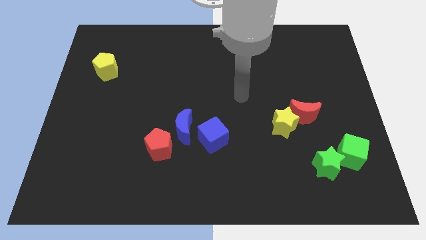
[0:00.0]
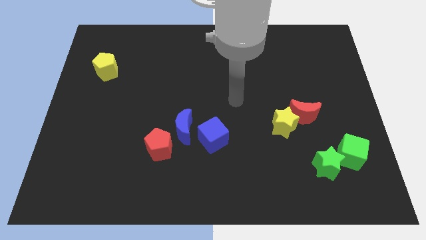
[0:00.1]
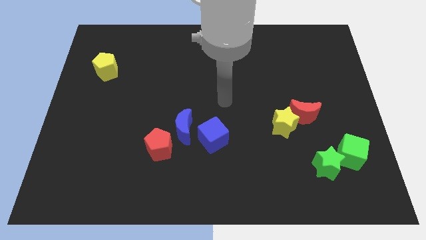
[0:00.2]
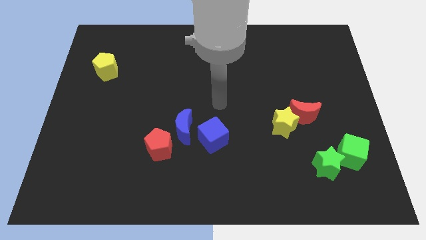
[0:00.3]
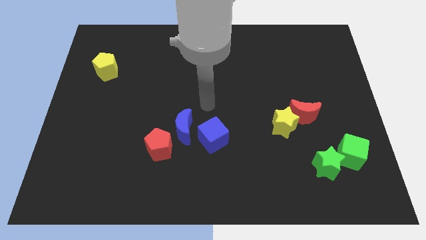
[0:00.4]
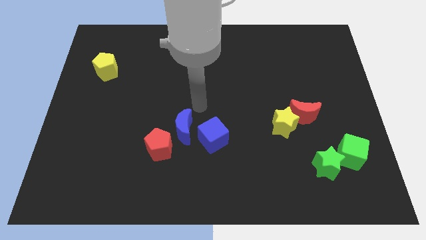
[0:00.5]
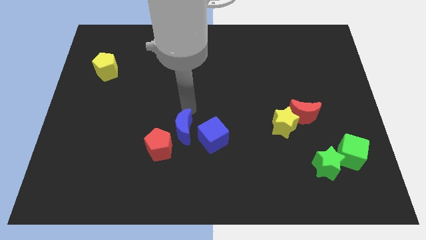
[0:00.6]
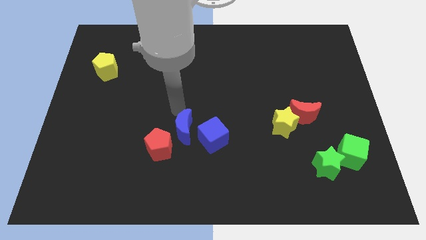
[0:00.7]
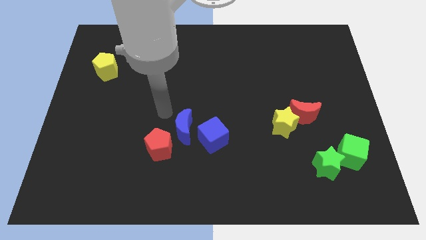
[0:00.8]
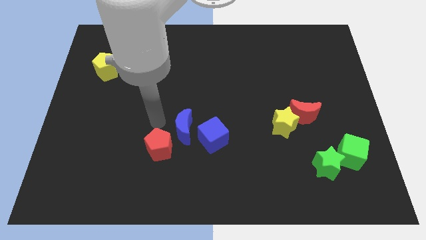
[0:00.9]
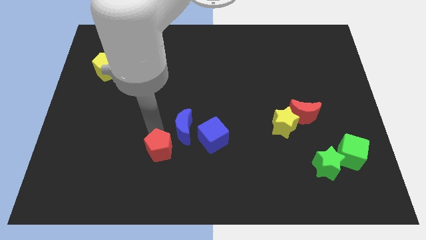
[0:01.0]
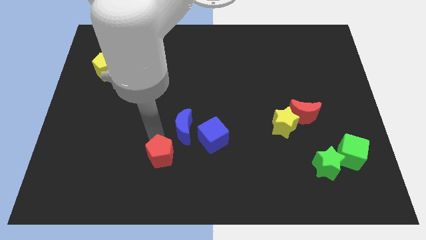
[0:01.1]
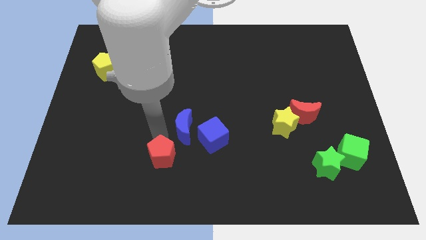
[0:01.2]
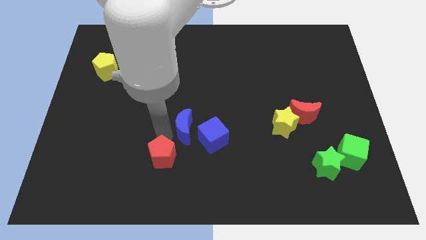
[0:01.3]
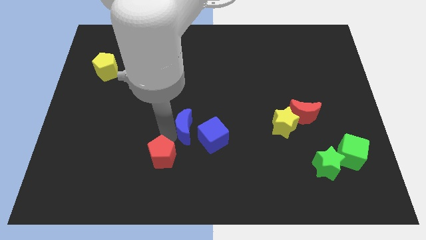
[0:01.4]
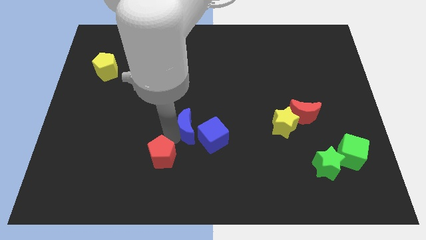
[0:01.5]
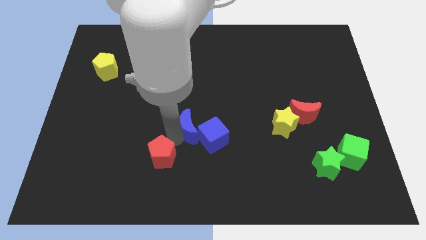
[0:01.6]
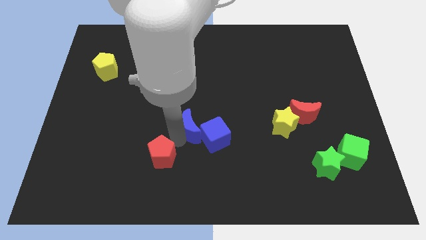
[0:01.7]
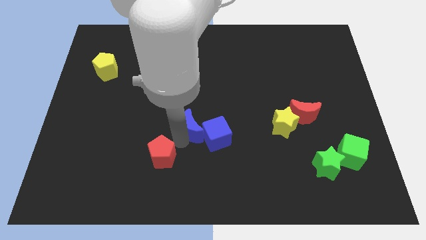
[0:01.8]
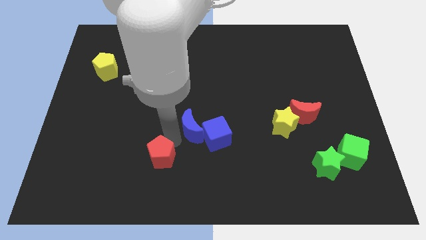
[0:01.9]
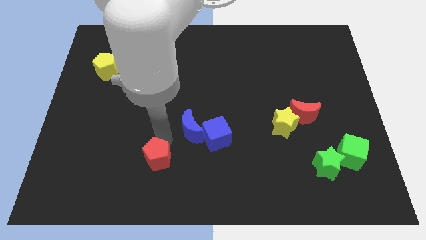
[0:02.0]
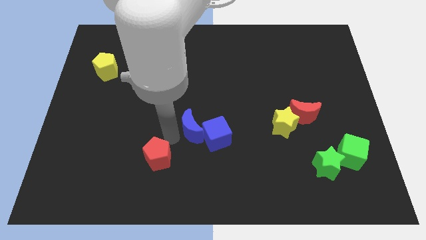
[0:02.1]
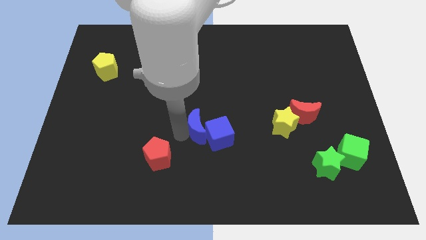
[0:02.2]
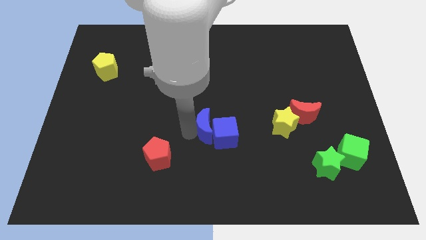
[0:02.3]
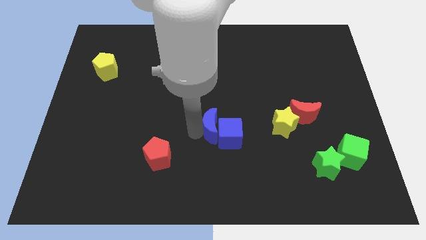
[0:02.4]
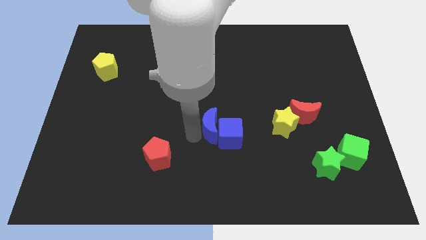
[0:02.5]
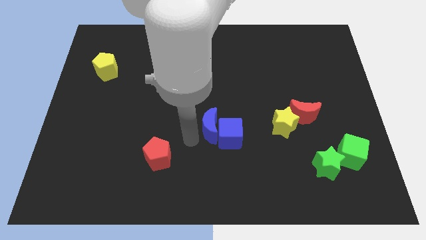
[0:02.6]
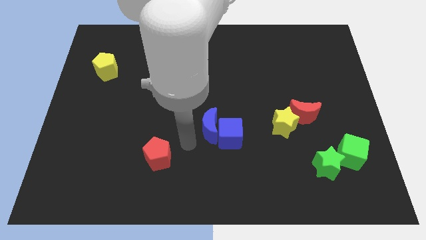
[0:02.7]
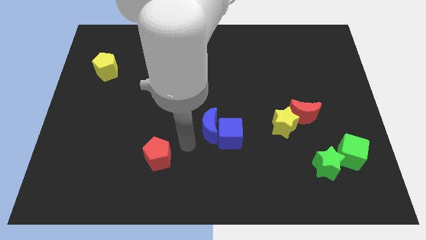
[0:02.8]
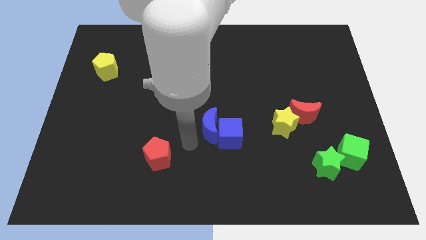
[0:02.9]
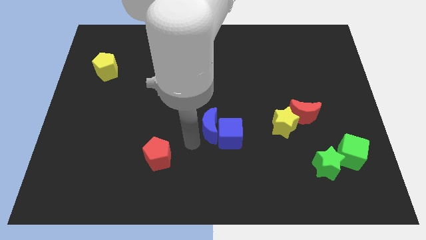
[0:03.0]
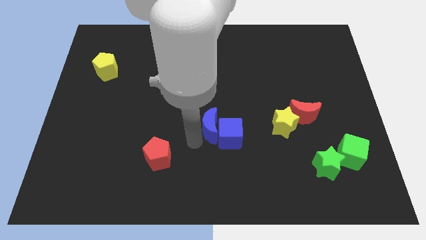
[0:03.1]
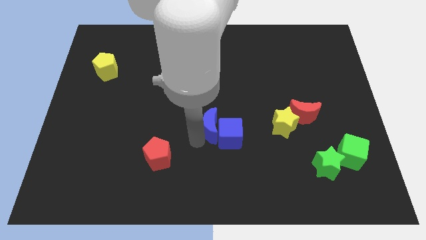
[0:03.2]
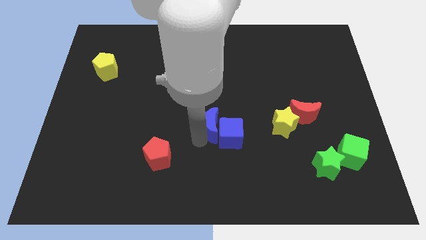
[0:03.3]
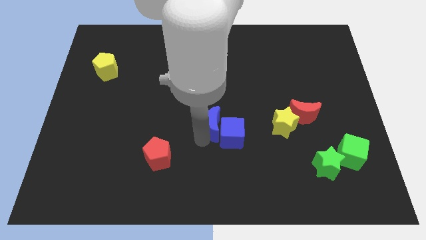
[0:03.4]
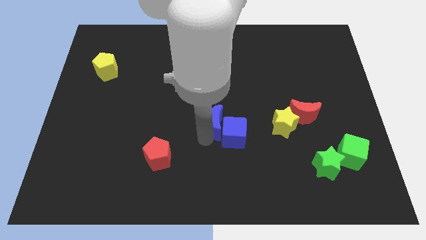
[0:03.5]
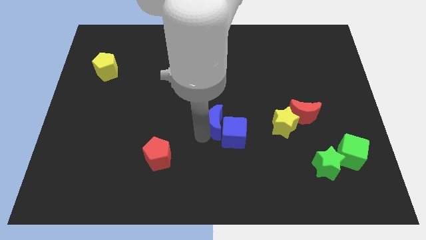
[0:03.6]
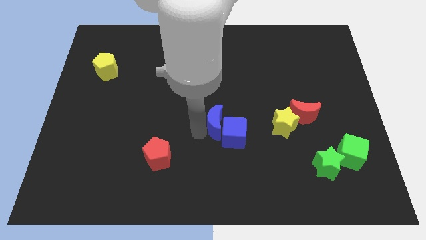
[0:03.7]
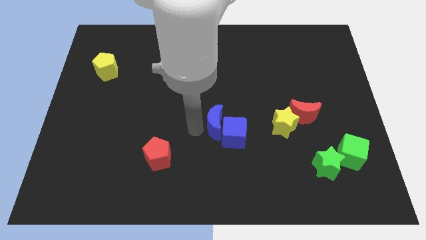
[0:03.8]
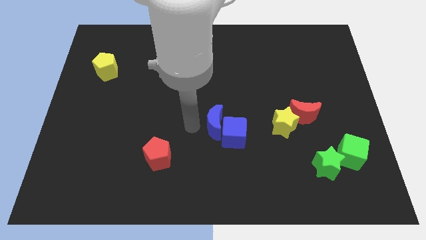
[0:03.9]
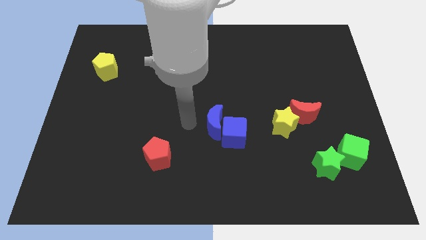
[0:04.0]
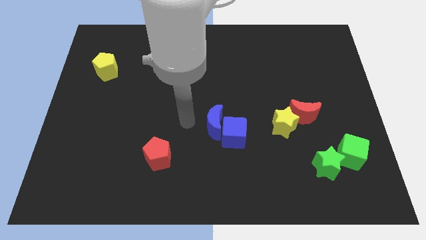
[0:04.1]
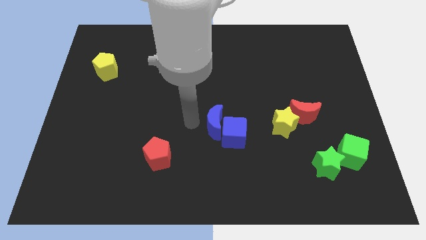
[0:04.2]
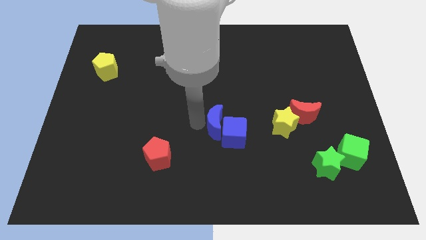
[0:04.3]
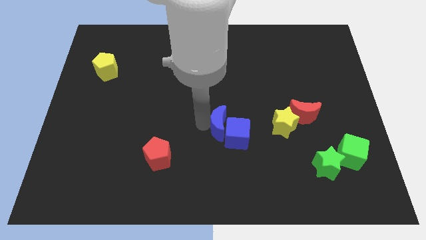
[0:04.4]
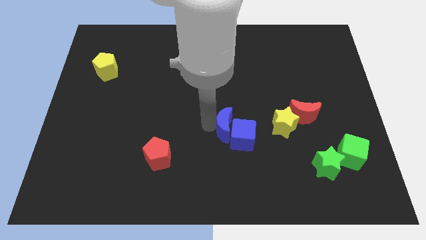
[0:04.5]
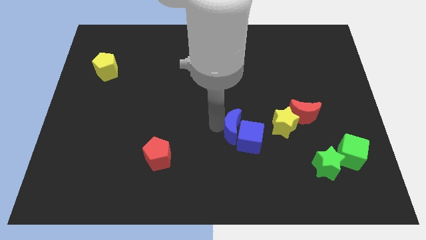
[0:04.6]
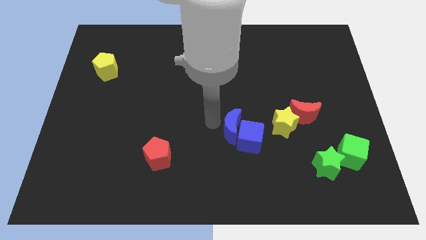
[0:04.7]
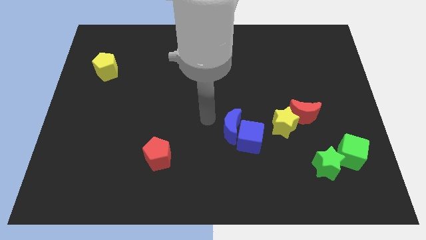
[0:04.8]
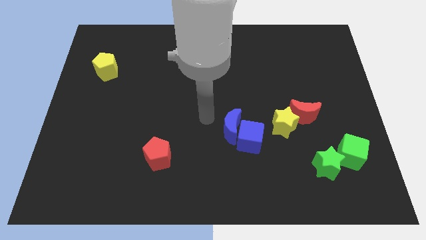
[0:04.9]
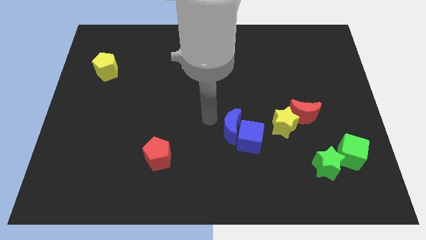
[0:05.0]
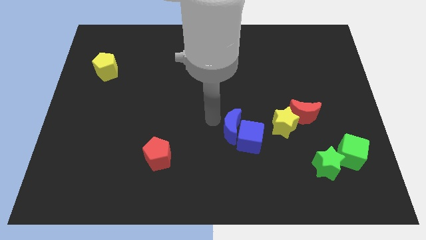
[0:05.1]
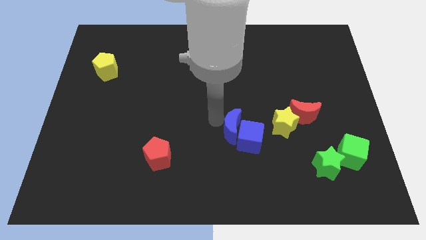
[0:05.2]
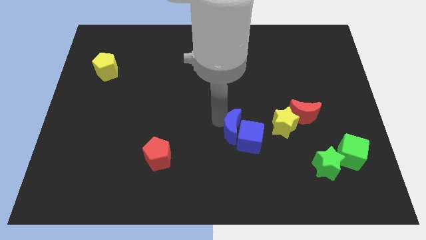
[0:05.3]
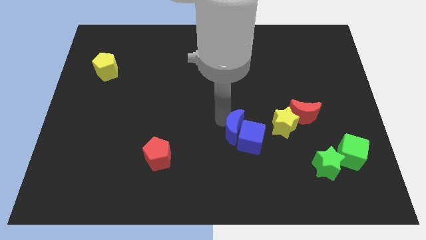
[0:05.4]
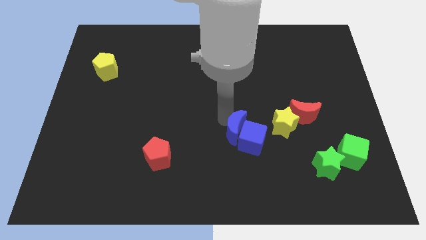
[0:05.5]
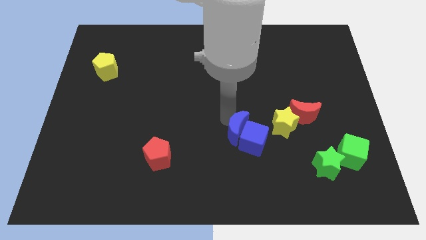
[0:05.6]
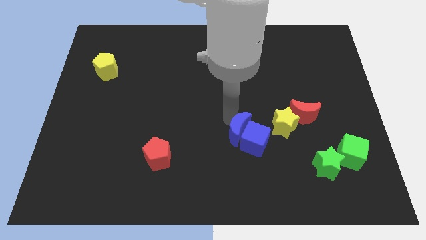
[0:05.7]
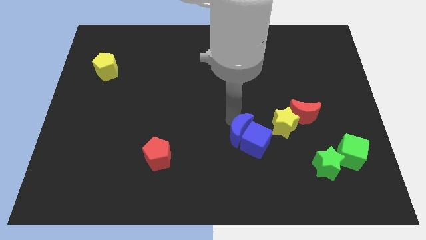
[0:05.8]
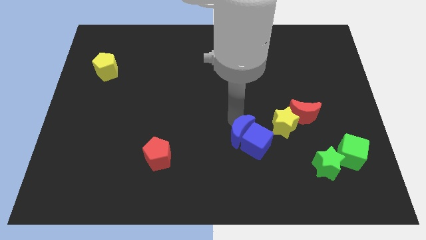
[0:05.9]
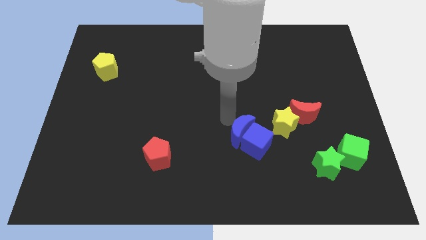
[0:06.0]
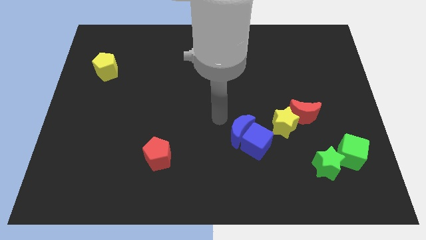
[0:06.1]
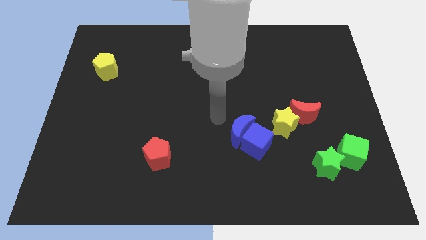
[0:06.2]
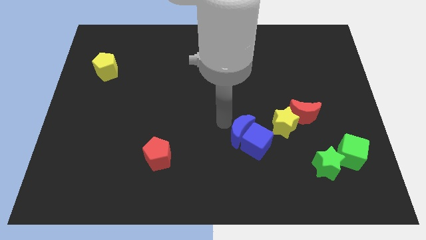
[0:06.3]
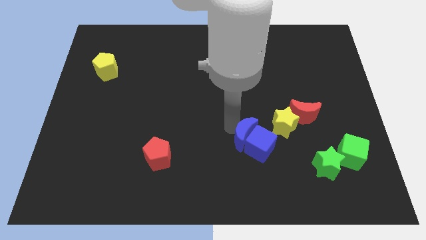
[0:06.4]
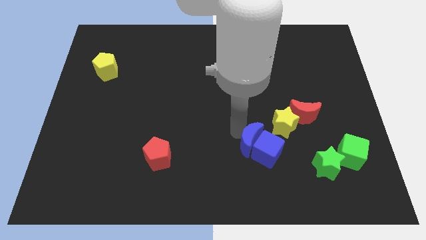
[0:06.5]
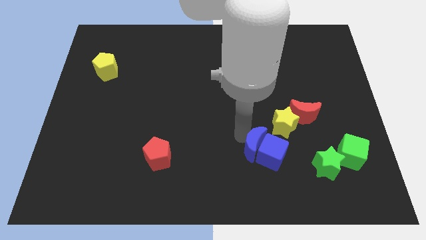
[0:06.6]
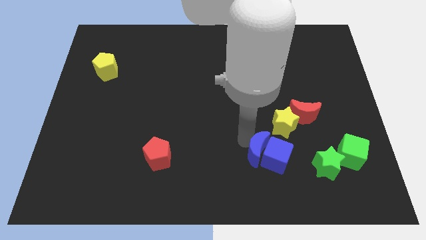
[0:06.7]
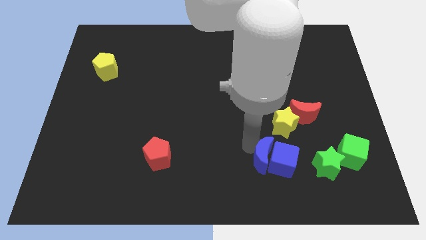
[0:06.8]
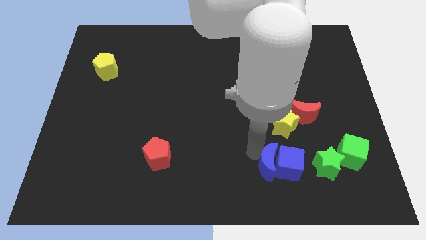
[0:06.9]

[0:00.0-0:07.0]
move the blue moon to the bottom of the yellow star

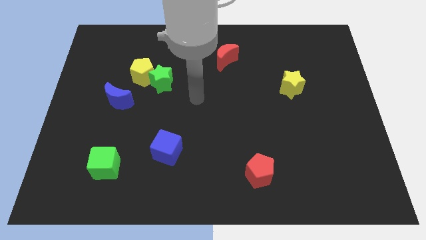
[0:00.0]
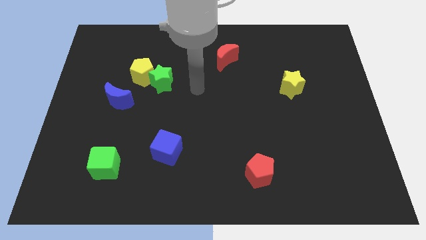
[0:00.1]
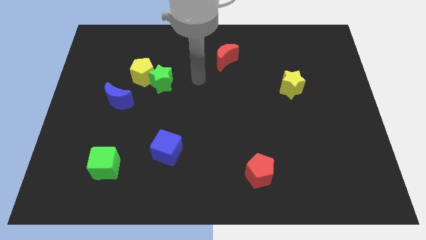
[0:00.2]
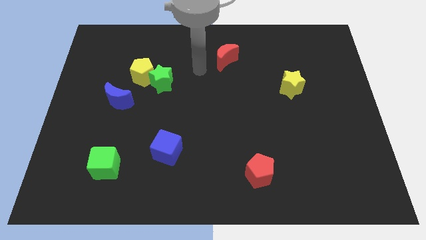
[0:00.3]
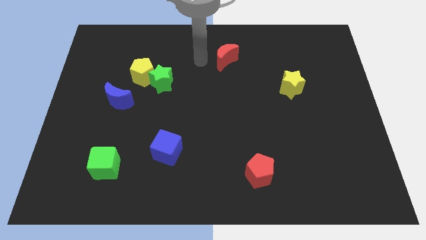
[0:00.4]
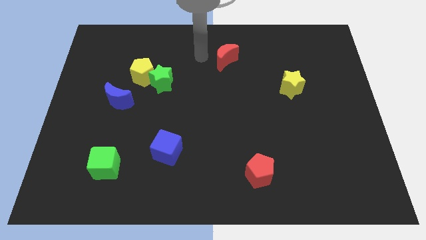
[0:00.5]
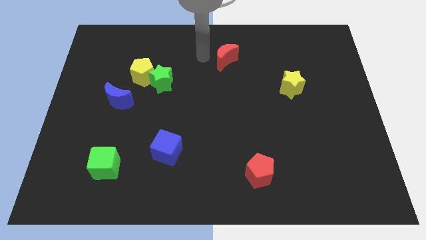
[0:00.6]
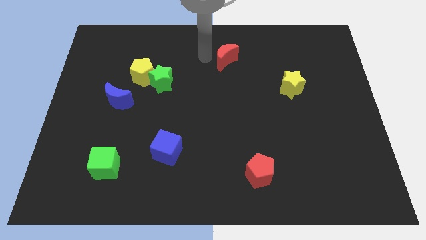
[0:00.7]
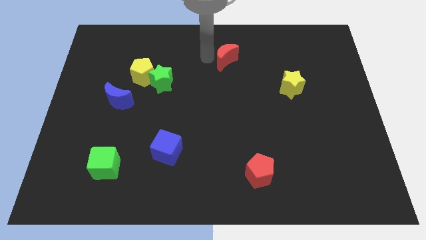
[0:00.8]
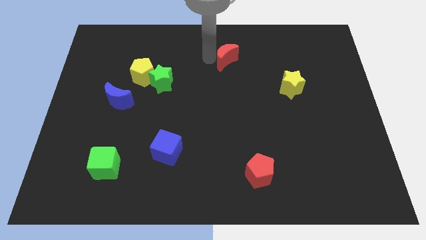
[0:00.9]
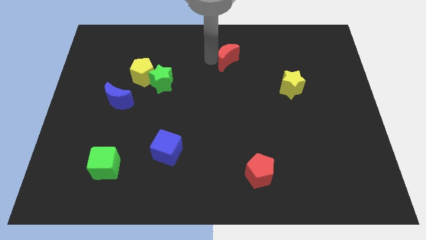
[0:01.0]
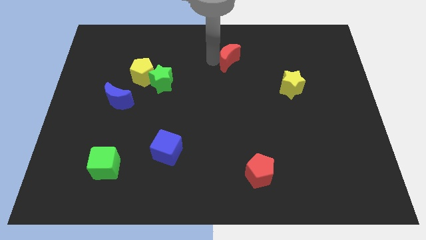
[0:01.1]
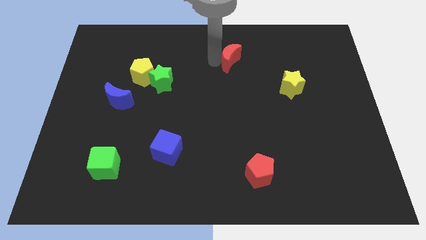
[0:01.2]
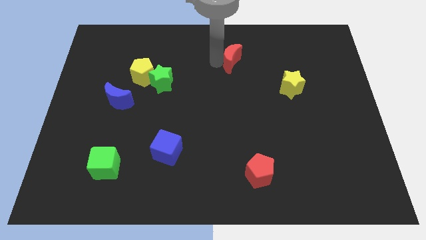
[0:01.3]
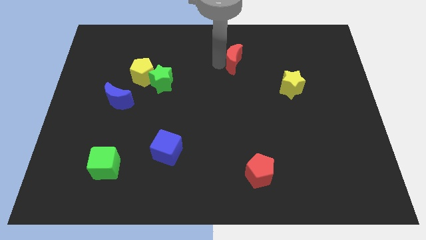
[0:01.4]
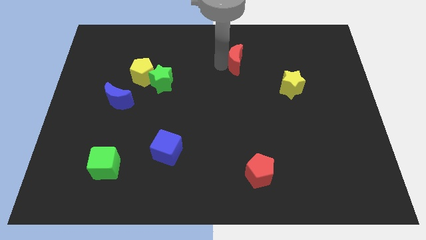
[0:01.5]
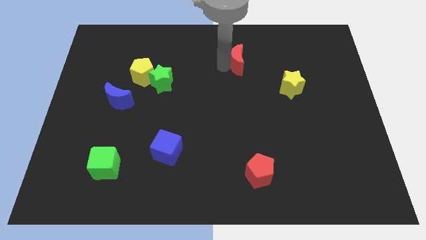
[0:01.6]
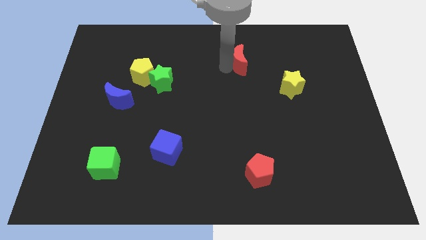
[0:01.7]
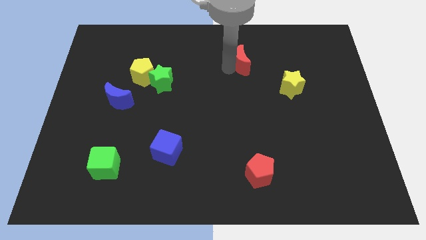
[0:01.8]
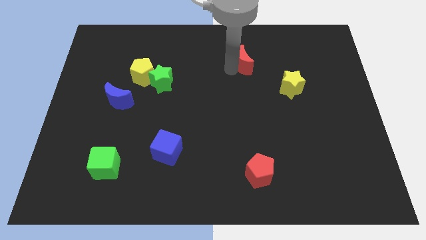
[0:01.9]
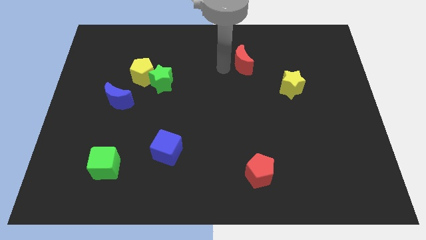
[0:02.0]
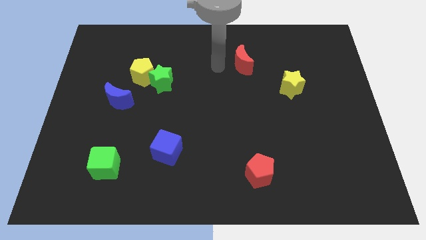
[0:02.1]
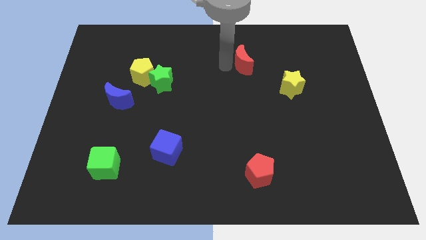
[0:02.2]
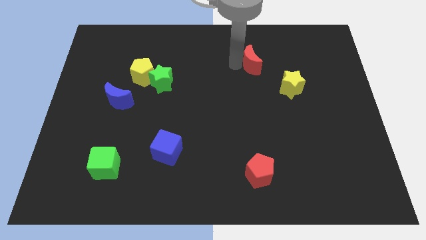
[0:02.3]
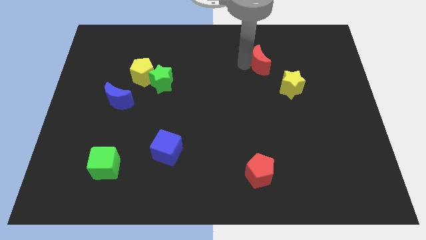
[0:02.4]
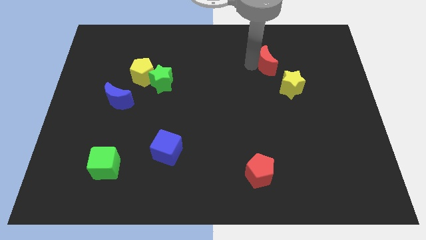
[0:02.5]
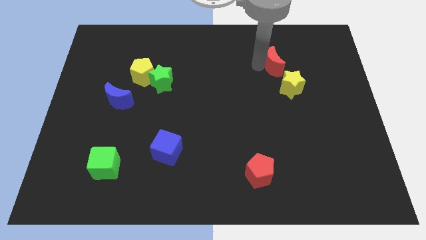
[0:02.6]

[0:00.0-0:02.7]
move the red moon above the yellow star
